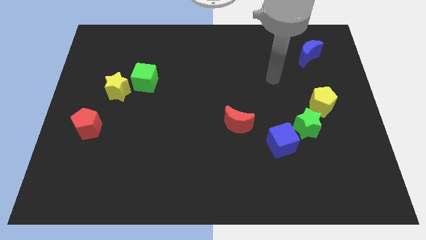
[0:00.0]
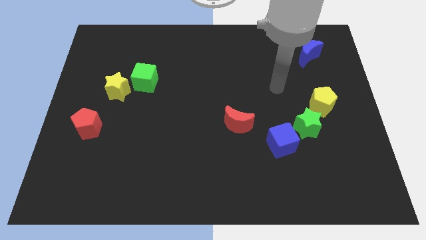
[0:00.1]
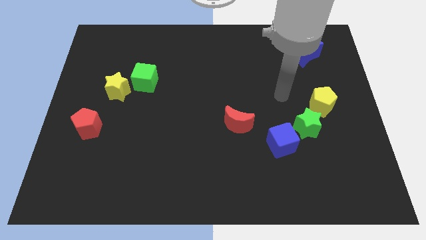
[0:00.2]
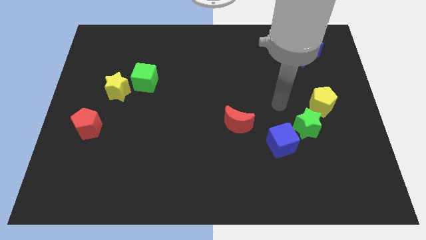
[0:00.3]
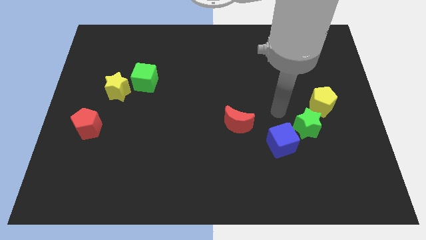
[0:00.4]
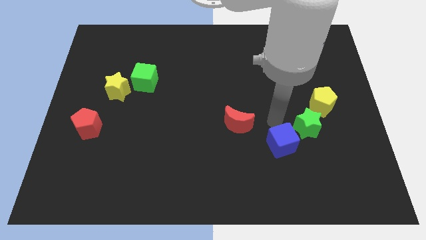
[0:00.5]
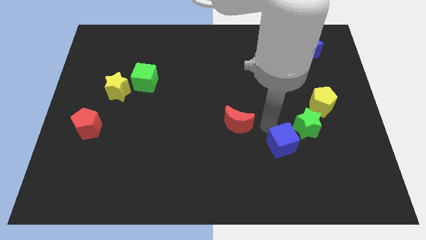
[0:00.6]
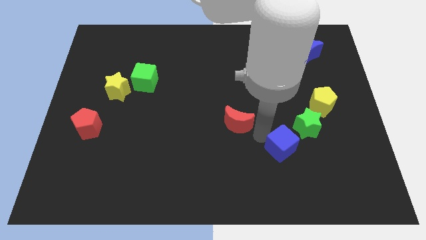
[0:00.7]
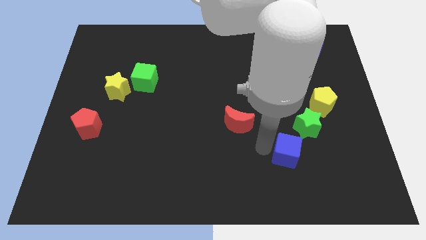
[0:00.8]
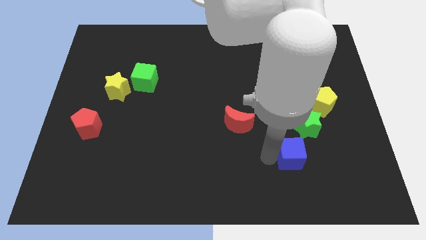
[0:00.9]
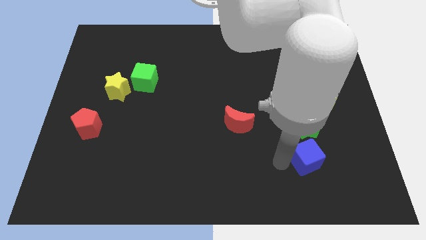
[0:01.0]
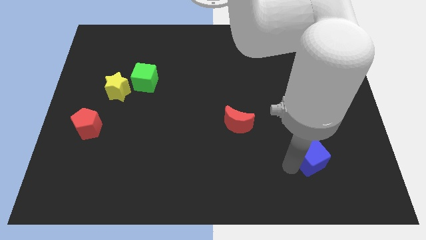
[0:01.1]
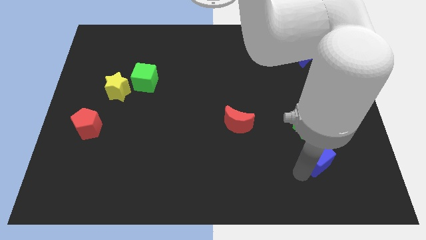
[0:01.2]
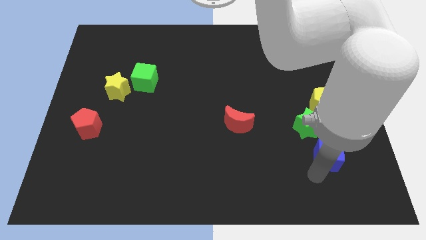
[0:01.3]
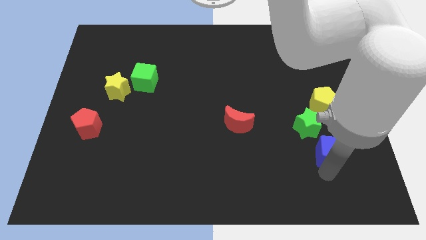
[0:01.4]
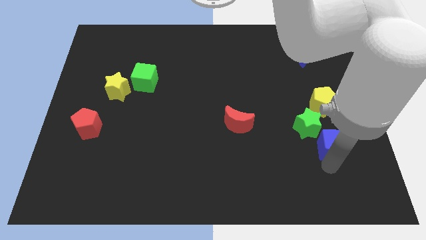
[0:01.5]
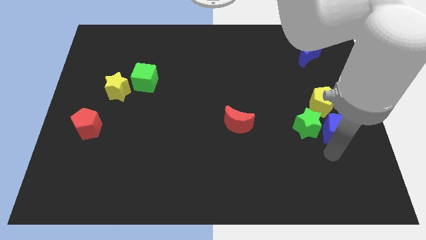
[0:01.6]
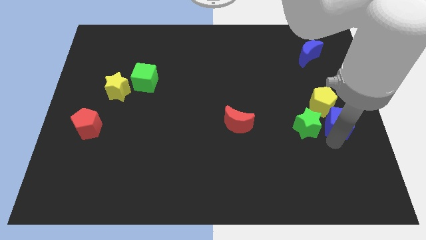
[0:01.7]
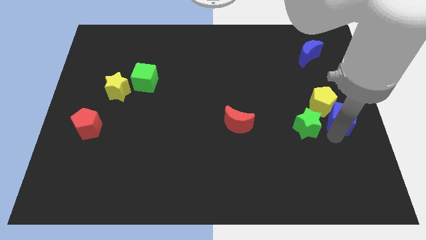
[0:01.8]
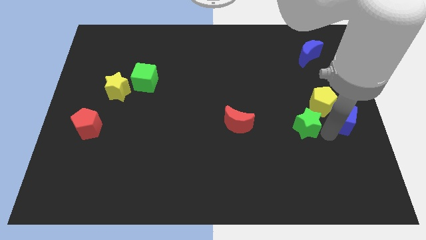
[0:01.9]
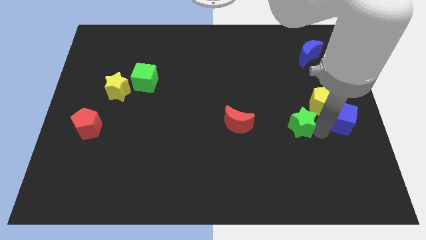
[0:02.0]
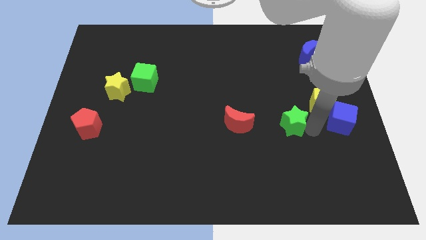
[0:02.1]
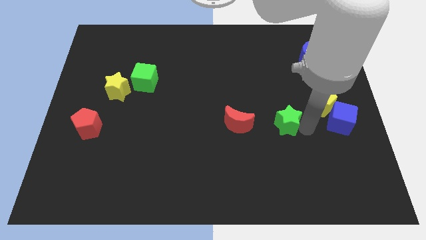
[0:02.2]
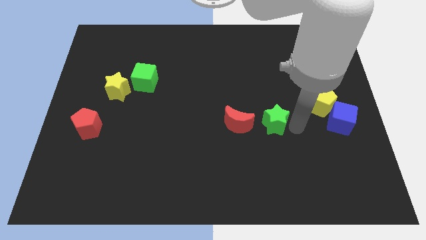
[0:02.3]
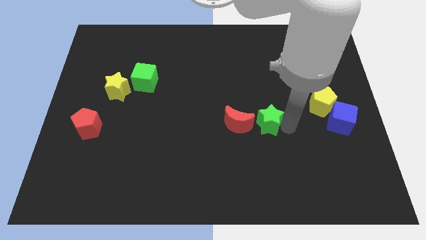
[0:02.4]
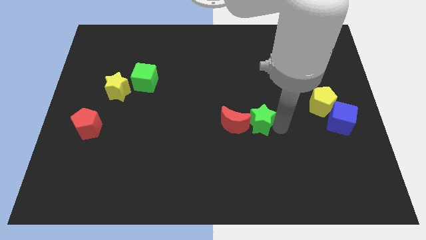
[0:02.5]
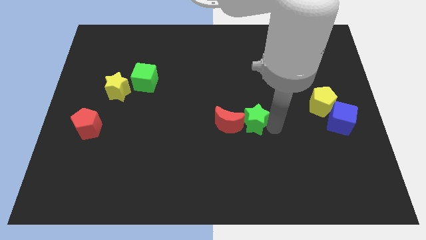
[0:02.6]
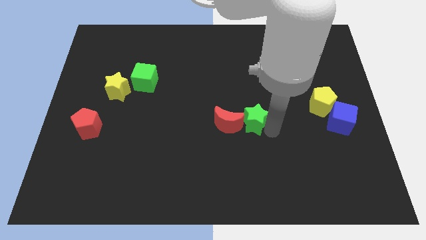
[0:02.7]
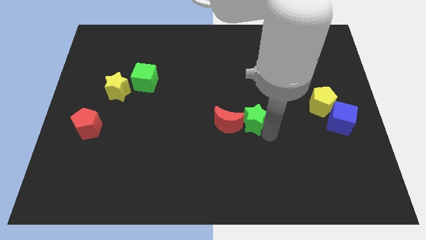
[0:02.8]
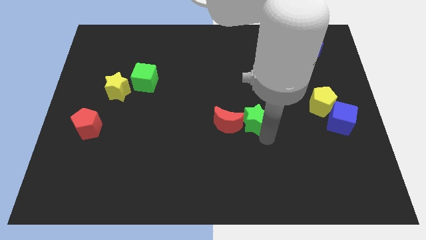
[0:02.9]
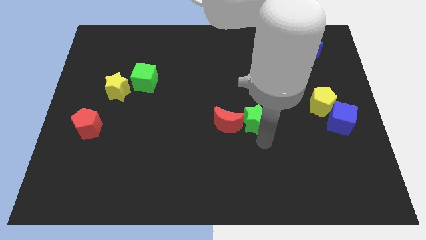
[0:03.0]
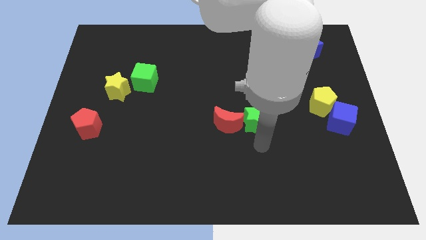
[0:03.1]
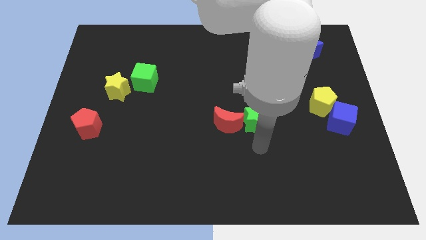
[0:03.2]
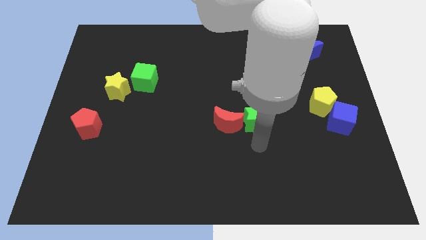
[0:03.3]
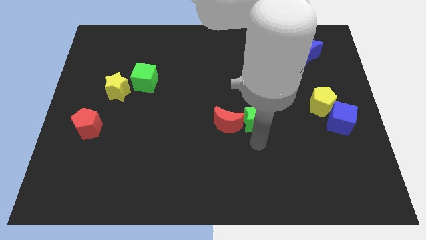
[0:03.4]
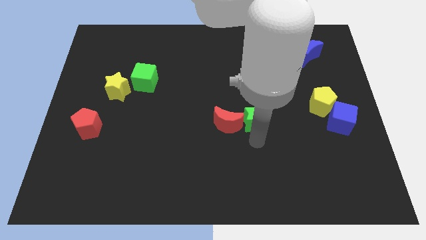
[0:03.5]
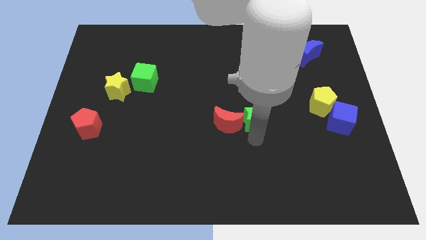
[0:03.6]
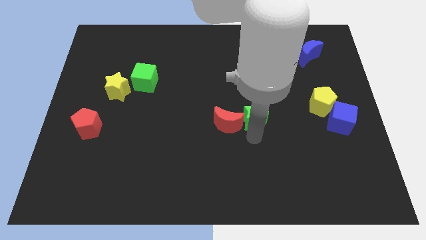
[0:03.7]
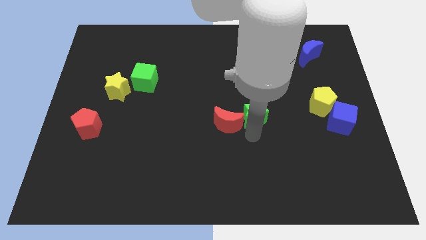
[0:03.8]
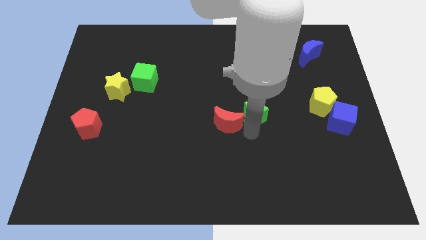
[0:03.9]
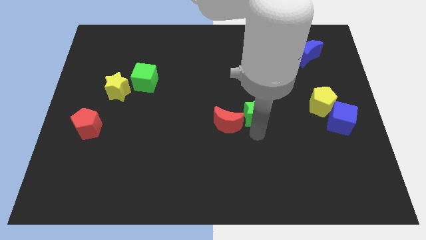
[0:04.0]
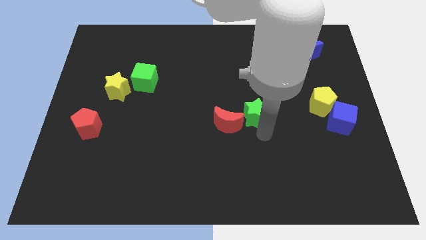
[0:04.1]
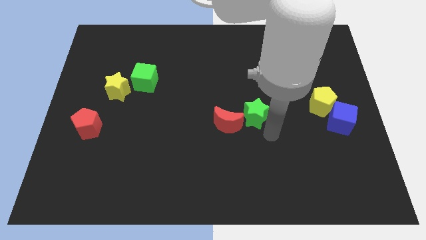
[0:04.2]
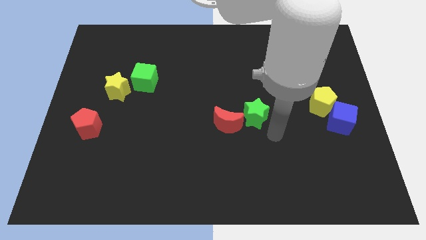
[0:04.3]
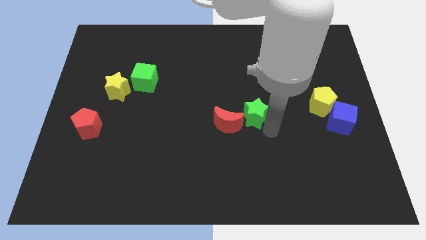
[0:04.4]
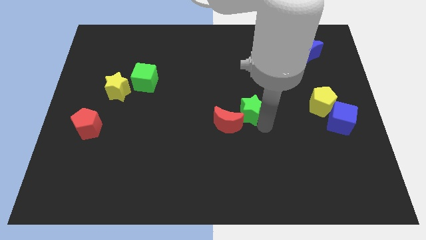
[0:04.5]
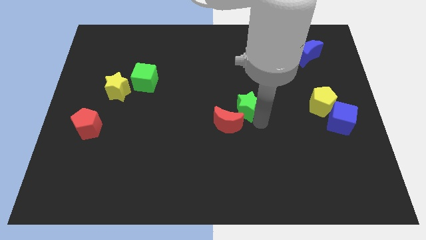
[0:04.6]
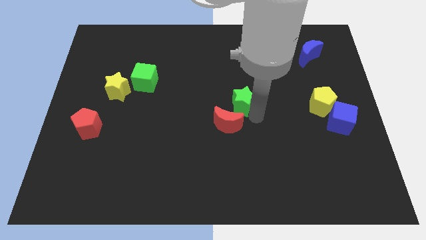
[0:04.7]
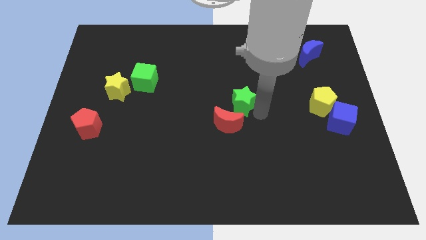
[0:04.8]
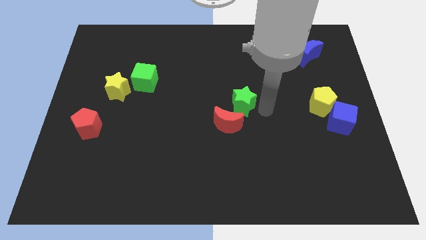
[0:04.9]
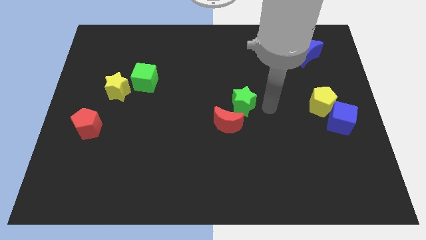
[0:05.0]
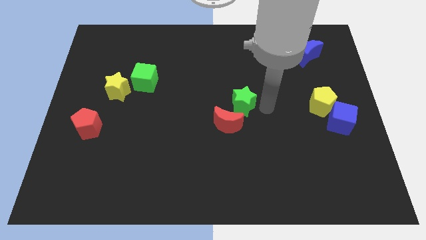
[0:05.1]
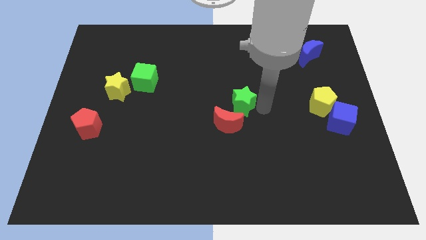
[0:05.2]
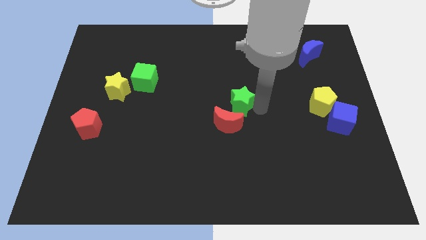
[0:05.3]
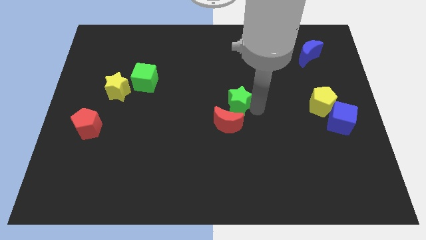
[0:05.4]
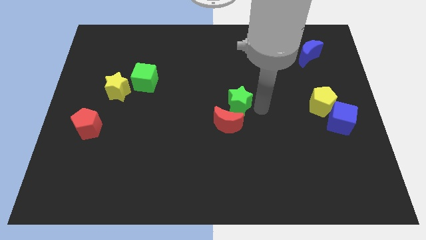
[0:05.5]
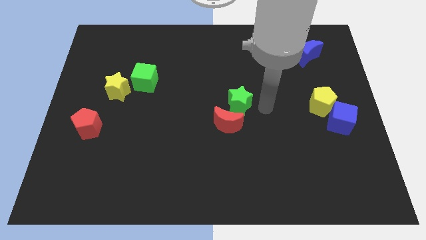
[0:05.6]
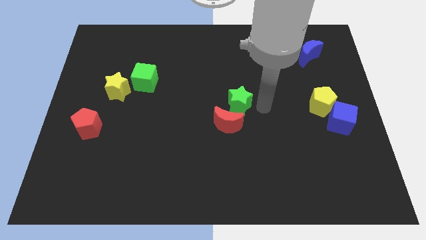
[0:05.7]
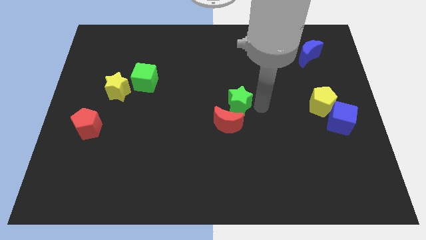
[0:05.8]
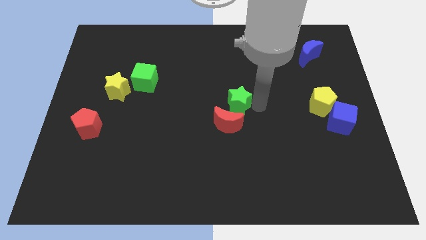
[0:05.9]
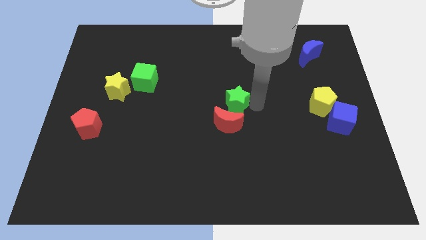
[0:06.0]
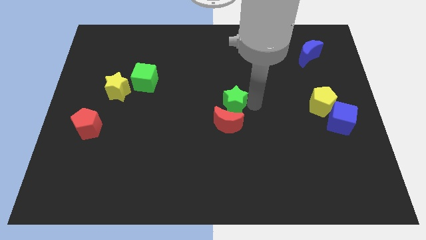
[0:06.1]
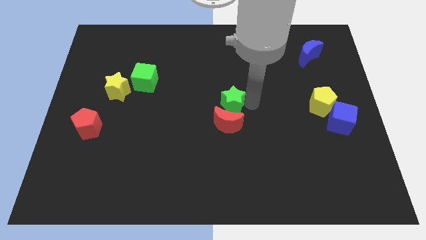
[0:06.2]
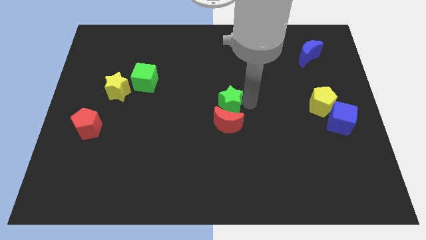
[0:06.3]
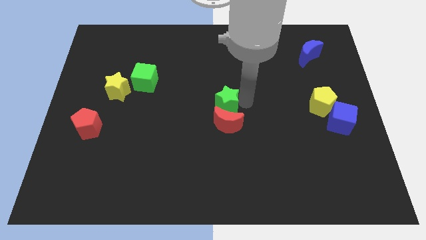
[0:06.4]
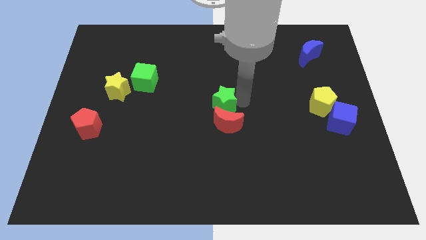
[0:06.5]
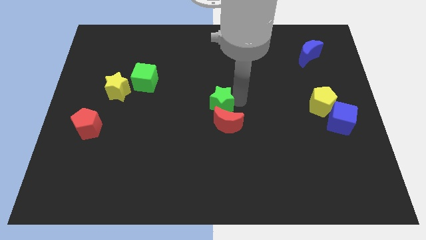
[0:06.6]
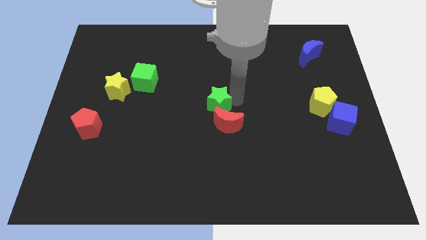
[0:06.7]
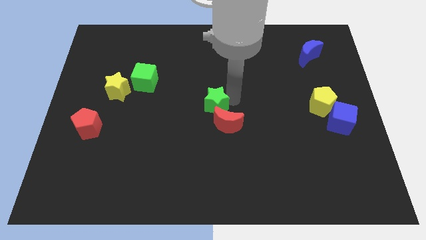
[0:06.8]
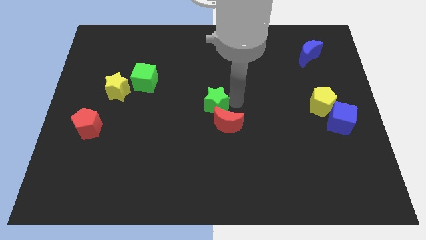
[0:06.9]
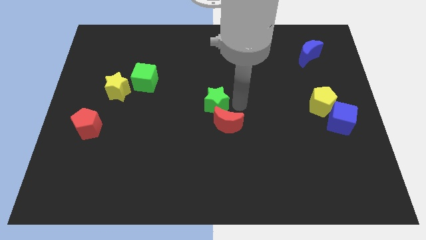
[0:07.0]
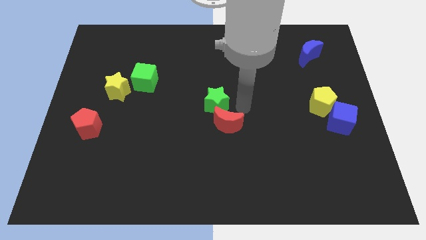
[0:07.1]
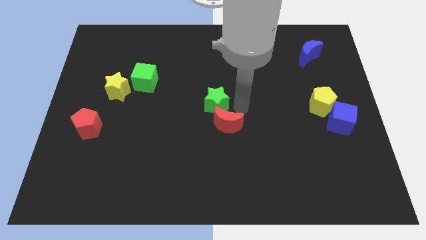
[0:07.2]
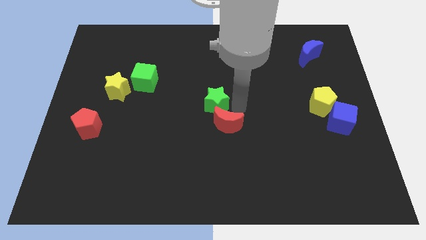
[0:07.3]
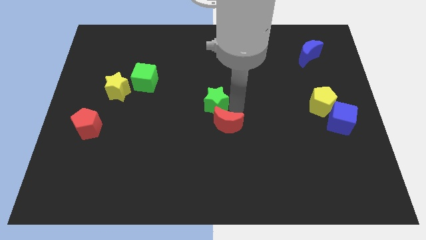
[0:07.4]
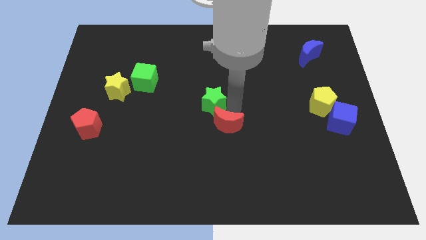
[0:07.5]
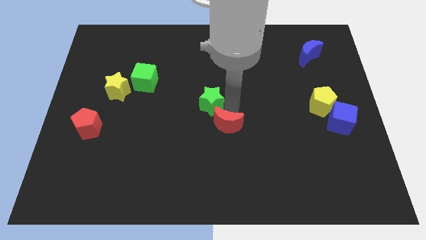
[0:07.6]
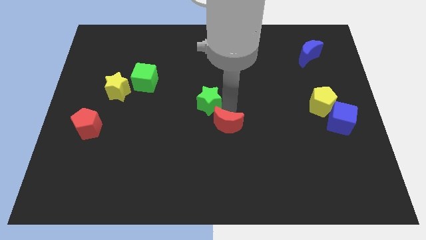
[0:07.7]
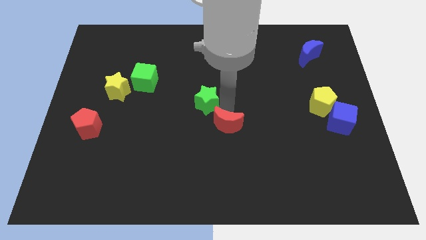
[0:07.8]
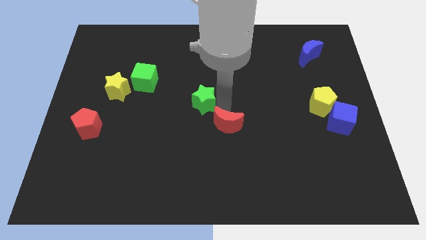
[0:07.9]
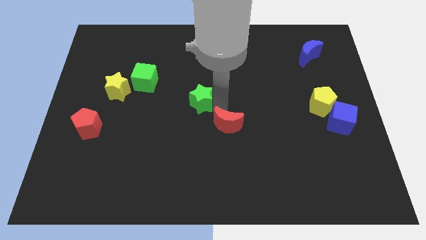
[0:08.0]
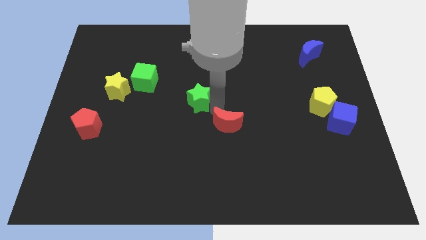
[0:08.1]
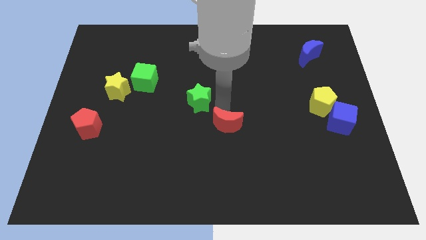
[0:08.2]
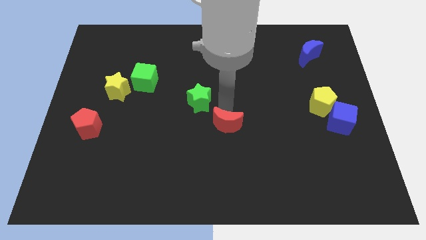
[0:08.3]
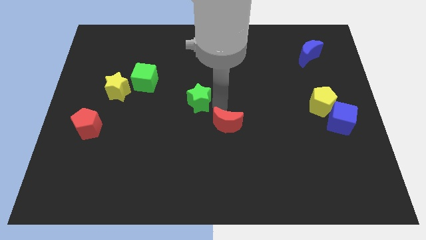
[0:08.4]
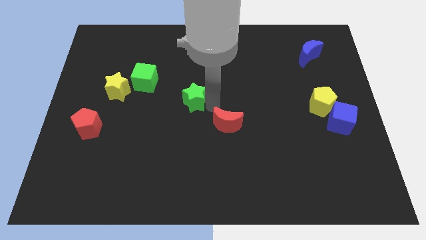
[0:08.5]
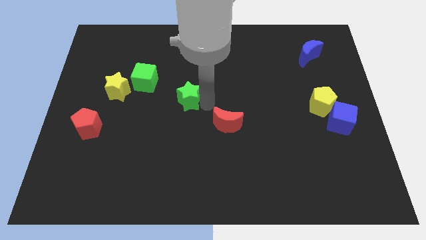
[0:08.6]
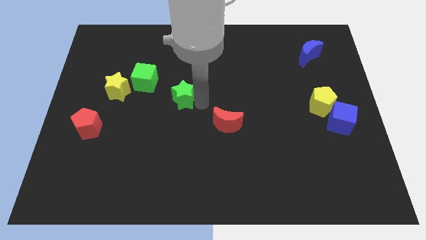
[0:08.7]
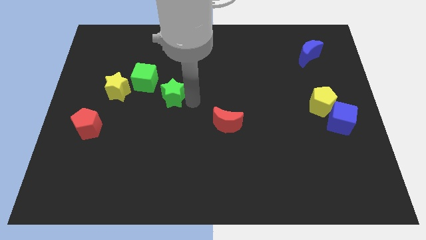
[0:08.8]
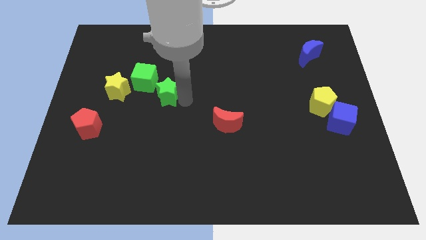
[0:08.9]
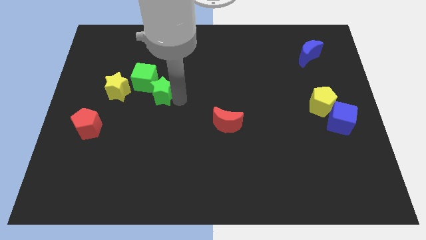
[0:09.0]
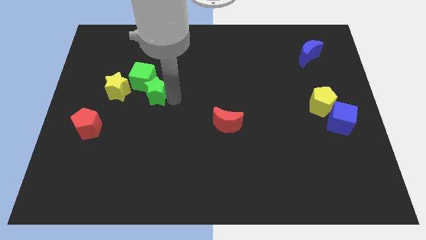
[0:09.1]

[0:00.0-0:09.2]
move the green star to the green cube
